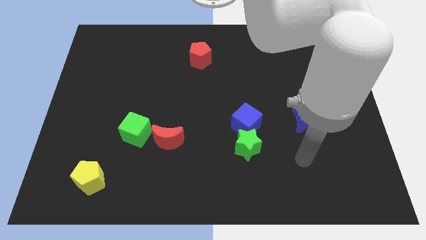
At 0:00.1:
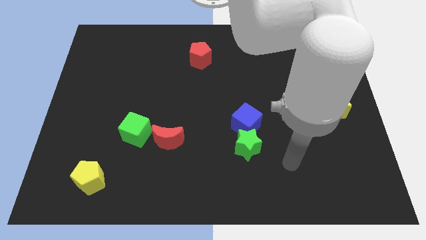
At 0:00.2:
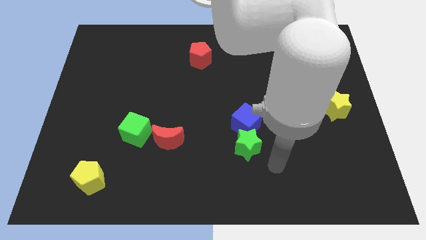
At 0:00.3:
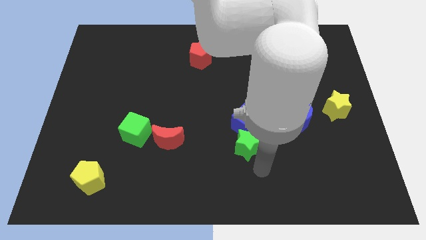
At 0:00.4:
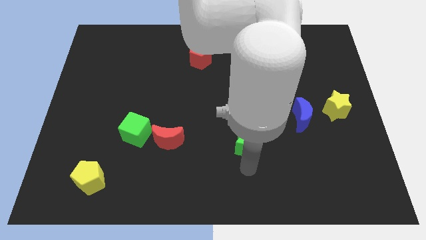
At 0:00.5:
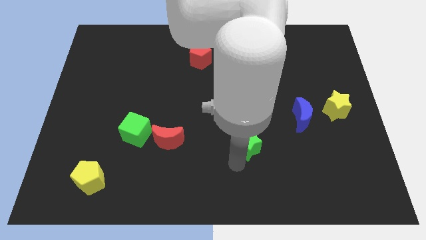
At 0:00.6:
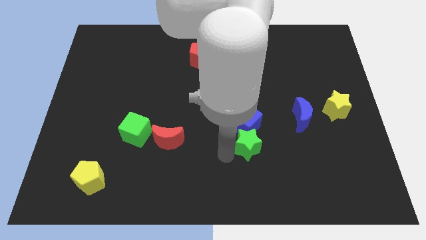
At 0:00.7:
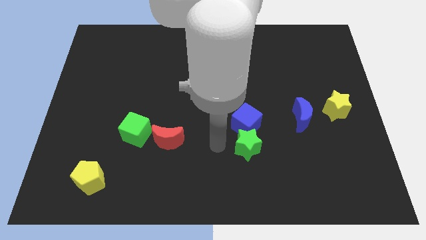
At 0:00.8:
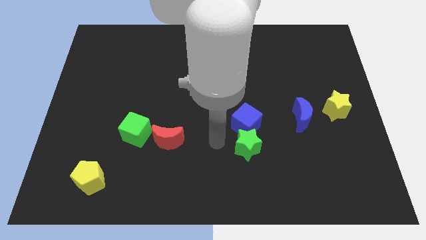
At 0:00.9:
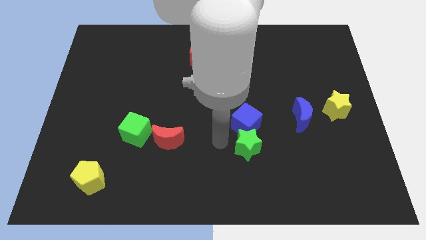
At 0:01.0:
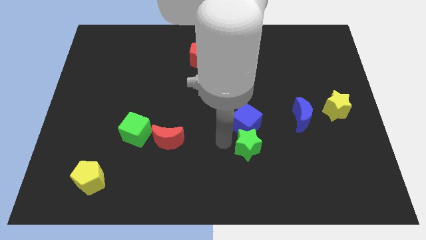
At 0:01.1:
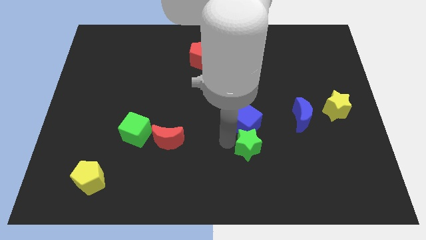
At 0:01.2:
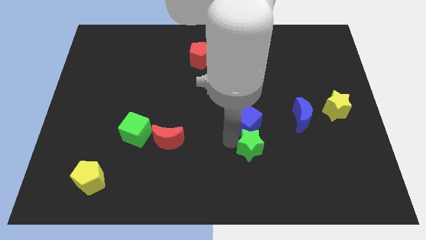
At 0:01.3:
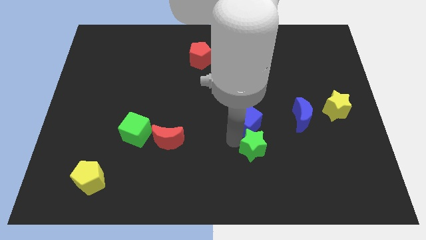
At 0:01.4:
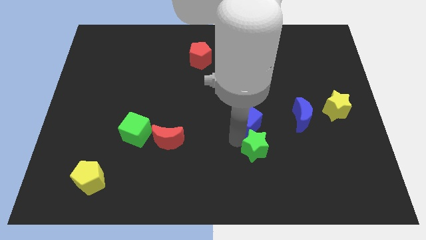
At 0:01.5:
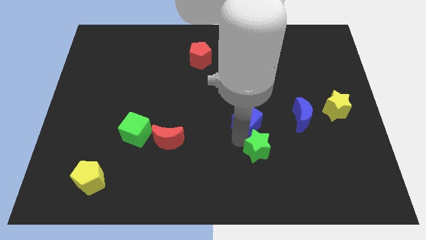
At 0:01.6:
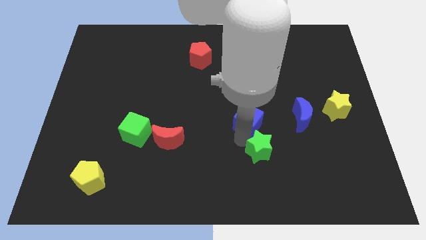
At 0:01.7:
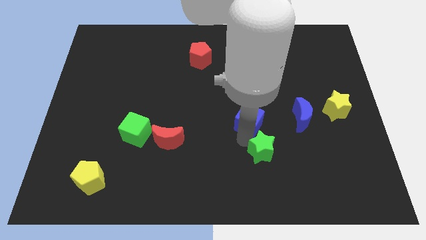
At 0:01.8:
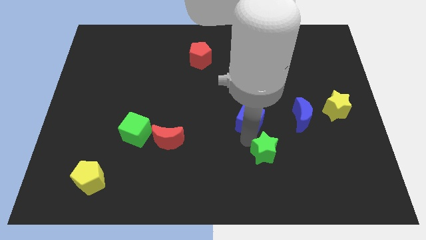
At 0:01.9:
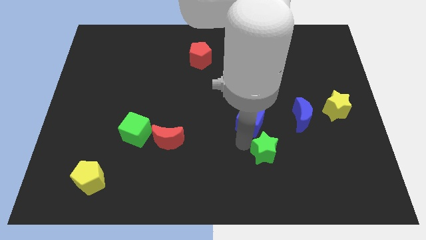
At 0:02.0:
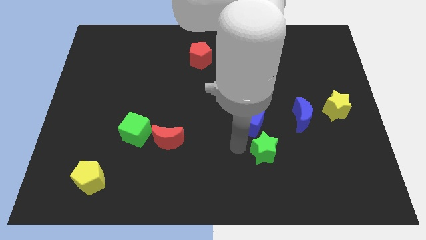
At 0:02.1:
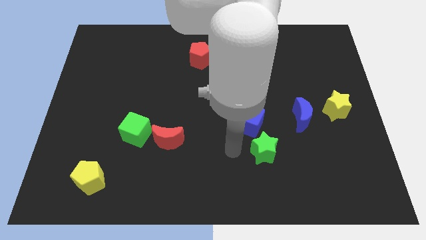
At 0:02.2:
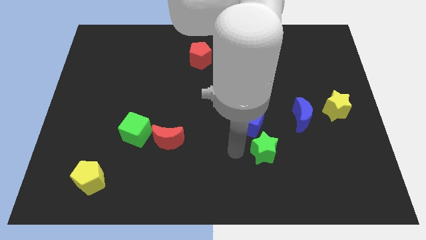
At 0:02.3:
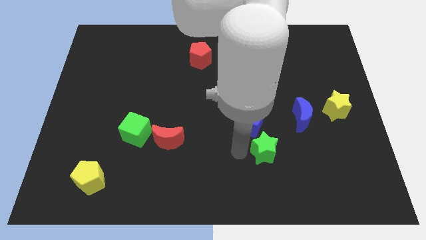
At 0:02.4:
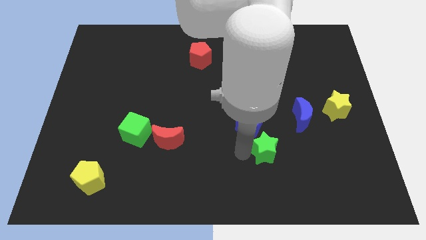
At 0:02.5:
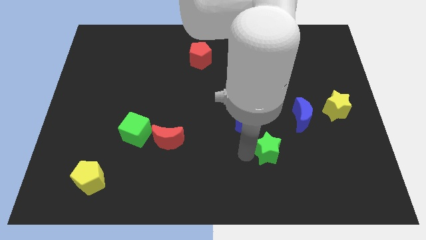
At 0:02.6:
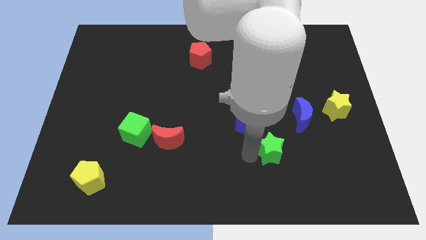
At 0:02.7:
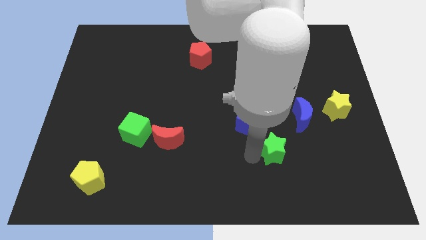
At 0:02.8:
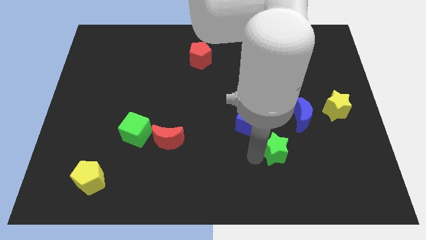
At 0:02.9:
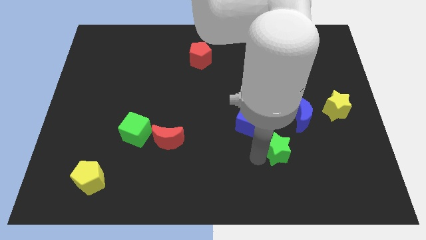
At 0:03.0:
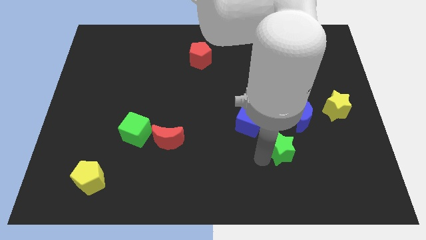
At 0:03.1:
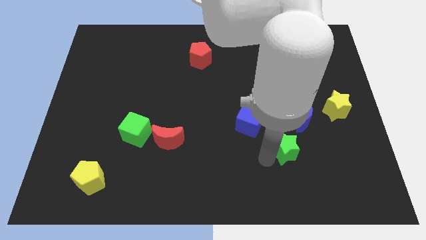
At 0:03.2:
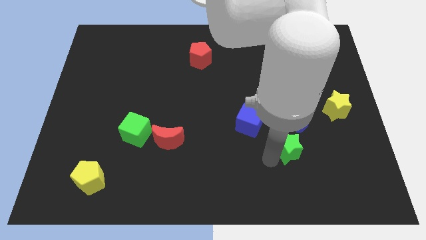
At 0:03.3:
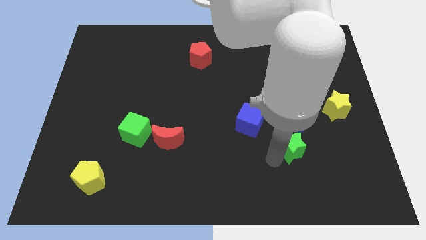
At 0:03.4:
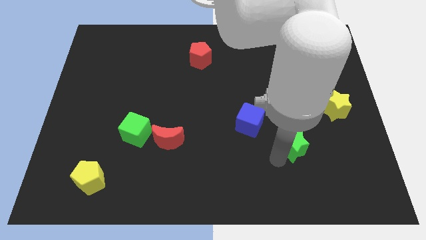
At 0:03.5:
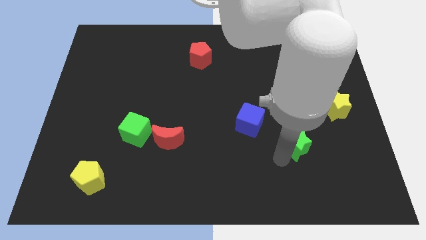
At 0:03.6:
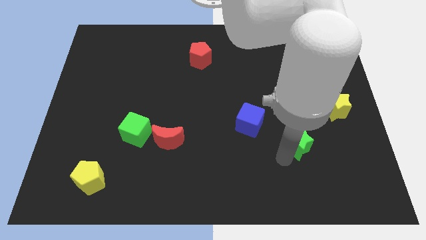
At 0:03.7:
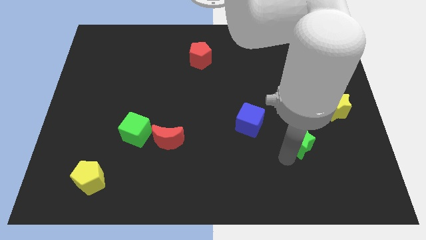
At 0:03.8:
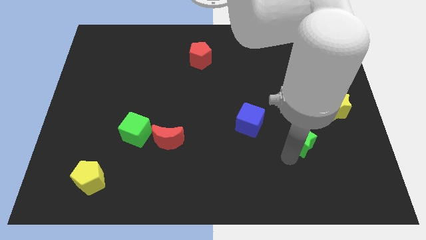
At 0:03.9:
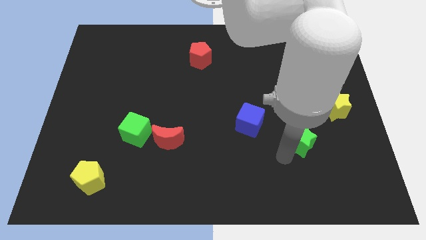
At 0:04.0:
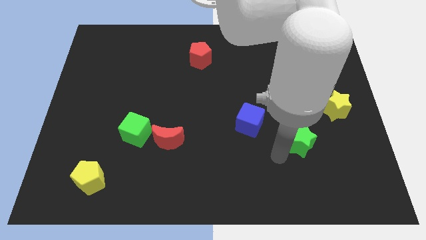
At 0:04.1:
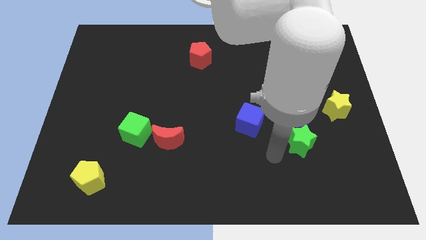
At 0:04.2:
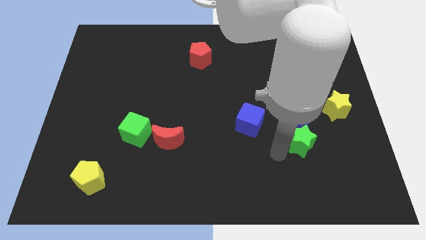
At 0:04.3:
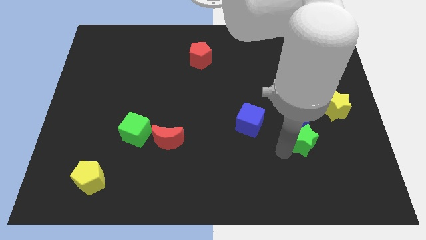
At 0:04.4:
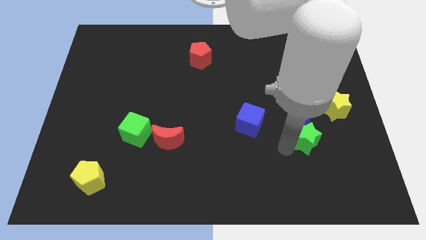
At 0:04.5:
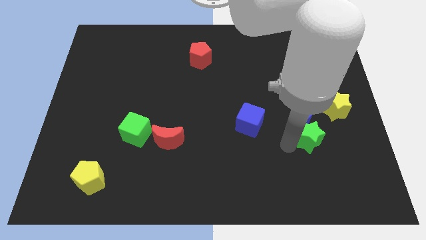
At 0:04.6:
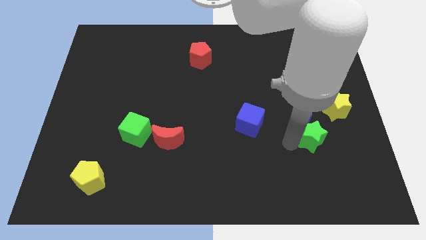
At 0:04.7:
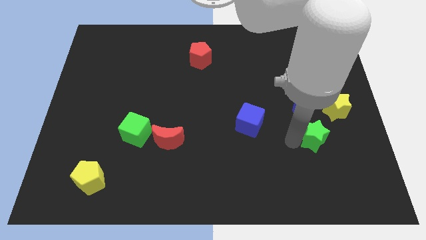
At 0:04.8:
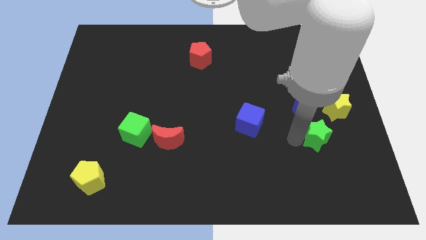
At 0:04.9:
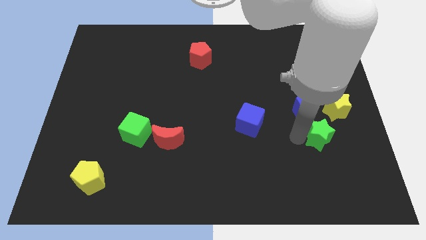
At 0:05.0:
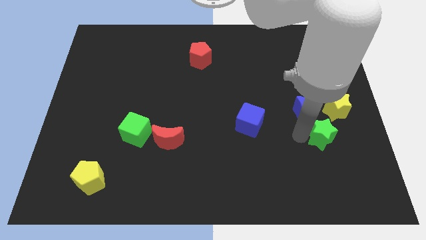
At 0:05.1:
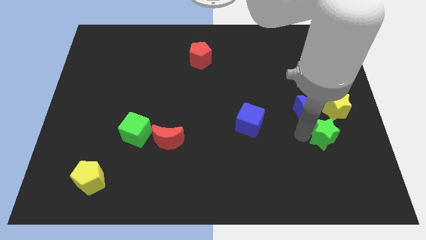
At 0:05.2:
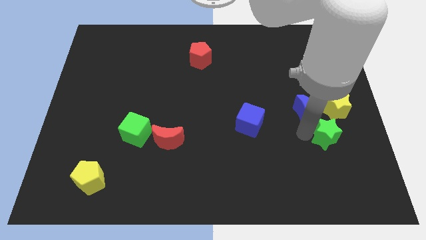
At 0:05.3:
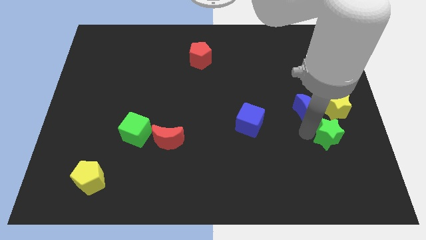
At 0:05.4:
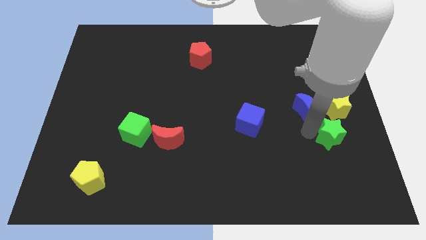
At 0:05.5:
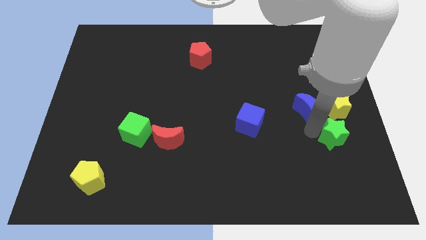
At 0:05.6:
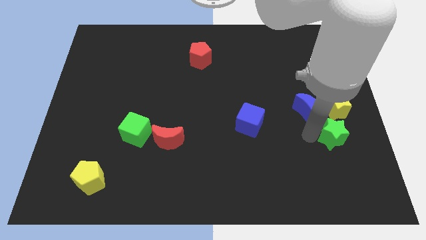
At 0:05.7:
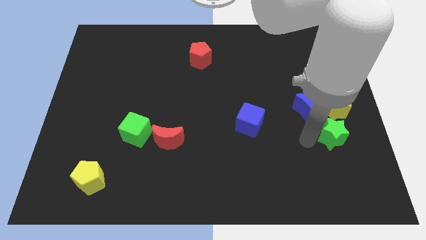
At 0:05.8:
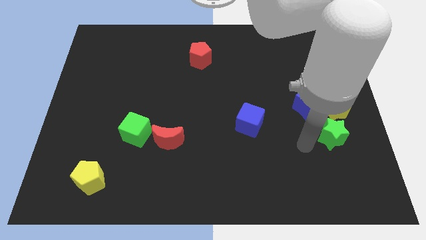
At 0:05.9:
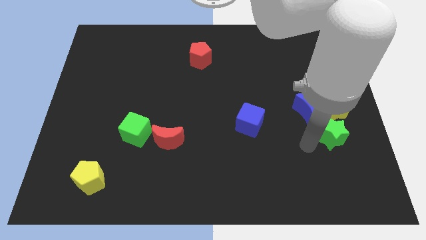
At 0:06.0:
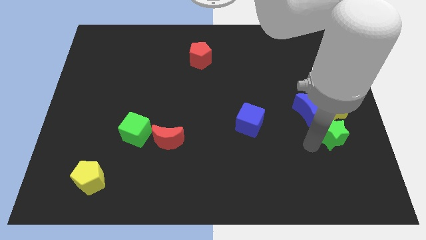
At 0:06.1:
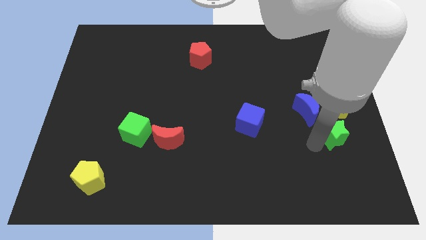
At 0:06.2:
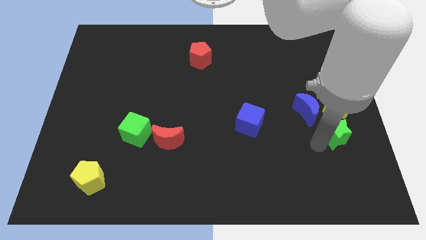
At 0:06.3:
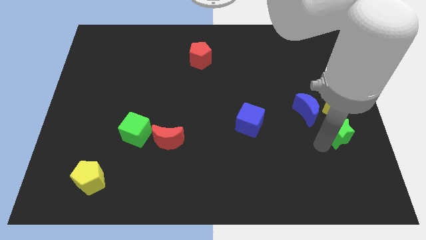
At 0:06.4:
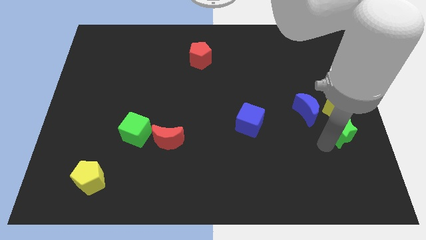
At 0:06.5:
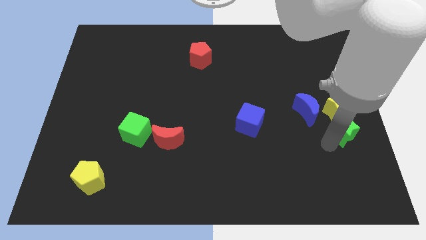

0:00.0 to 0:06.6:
push the green star to the right side of the board
